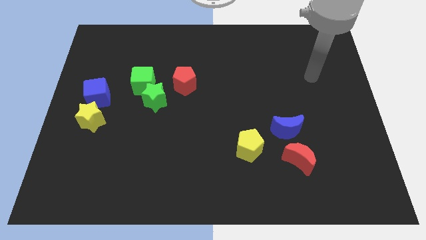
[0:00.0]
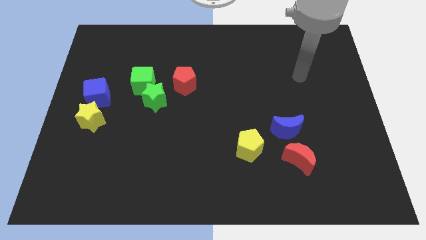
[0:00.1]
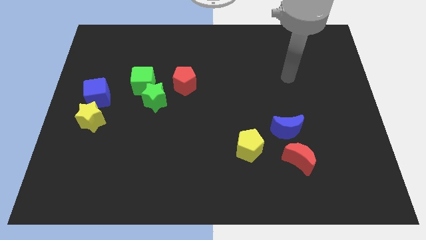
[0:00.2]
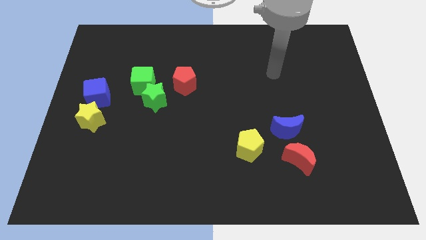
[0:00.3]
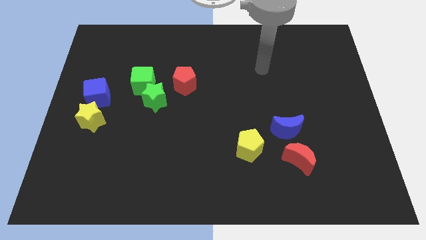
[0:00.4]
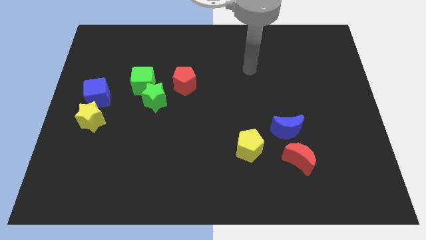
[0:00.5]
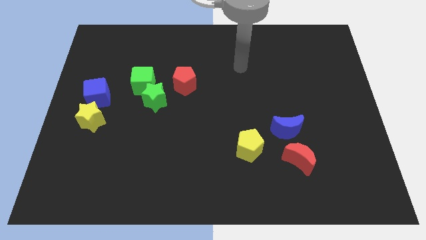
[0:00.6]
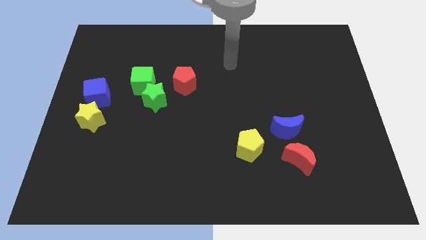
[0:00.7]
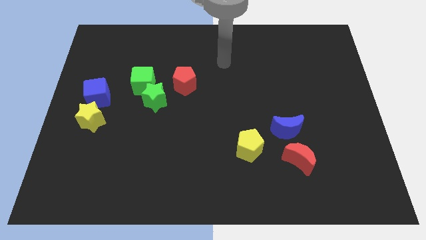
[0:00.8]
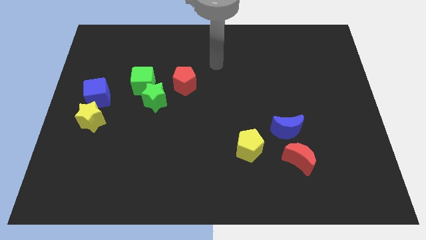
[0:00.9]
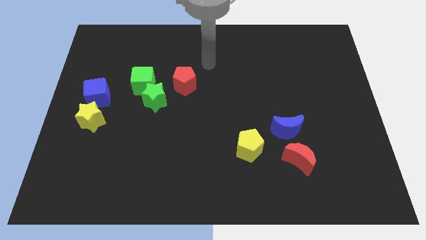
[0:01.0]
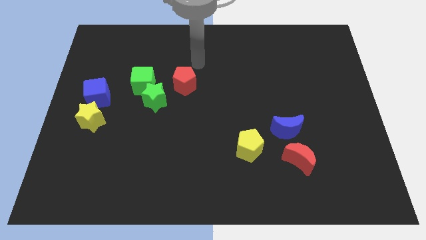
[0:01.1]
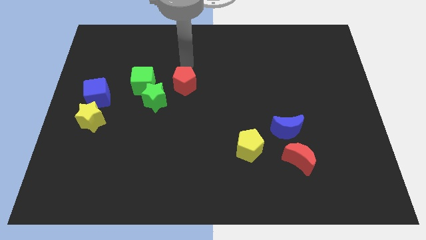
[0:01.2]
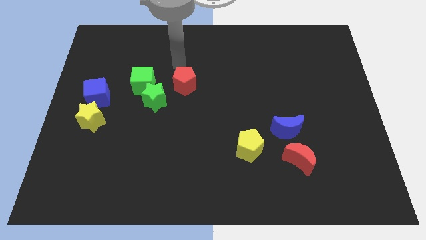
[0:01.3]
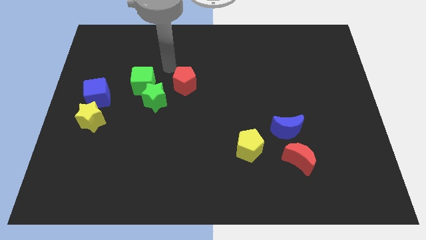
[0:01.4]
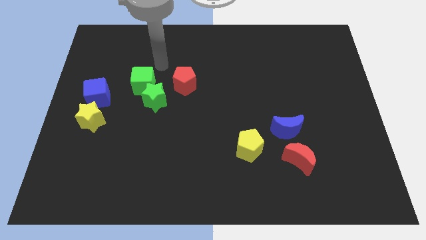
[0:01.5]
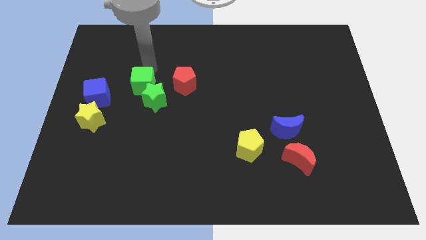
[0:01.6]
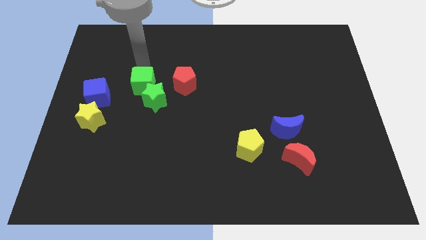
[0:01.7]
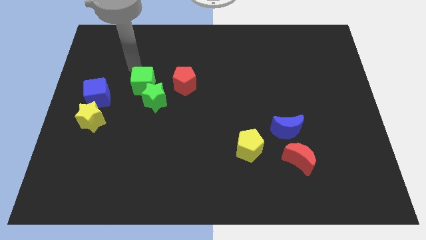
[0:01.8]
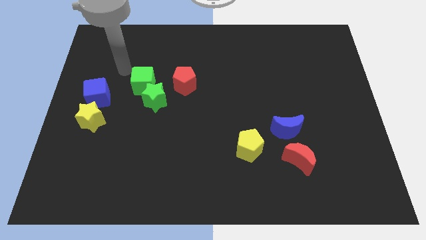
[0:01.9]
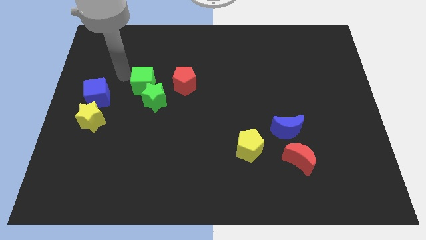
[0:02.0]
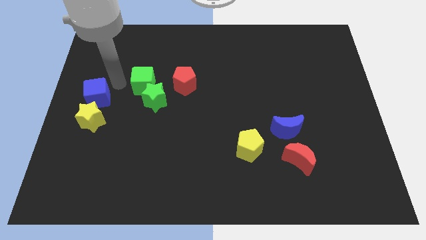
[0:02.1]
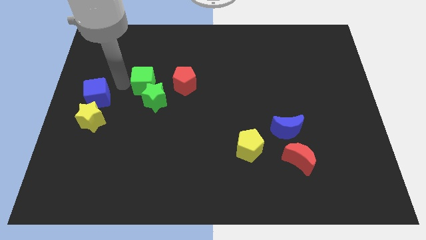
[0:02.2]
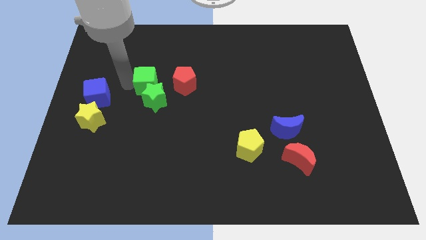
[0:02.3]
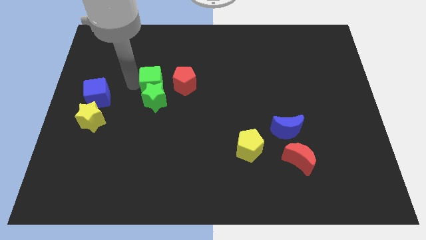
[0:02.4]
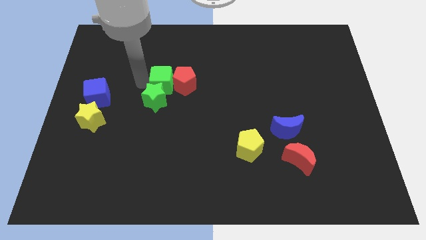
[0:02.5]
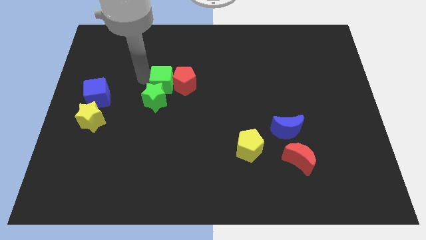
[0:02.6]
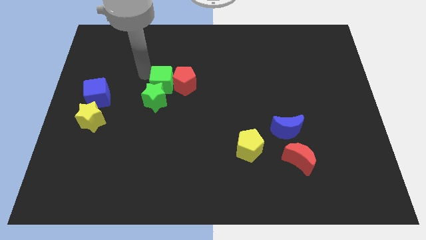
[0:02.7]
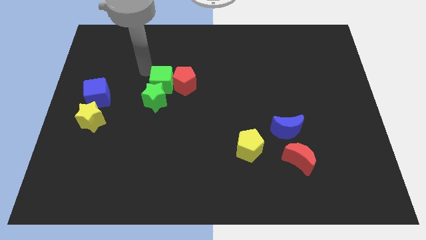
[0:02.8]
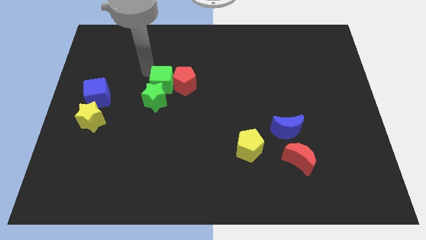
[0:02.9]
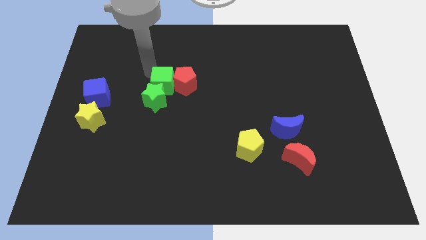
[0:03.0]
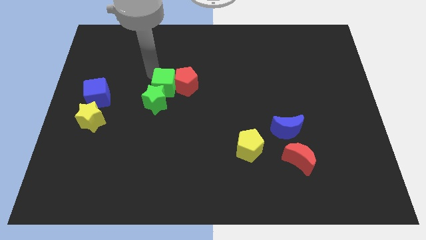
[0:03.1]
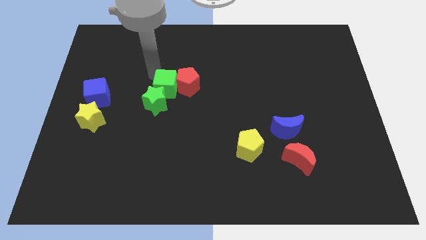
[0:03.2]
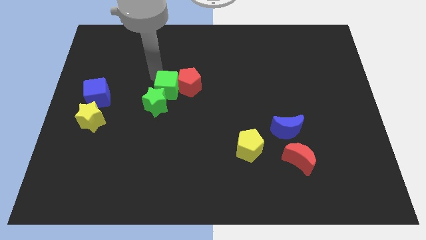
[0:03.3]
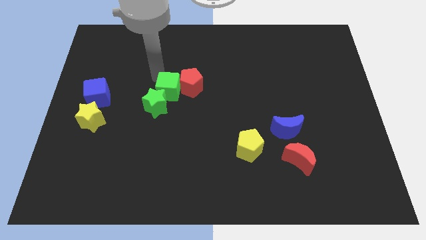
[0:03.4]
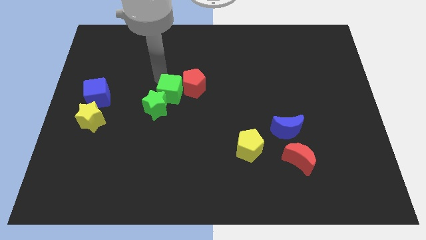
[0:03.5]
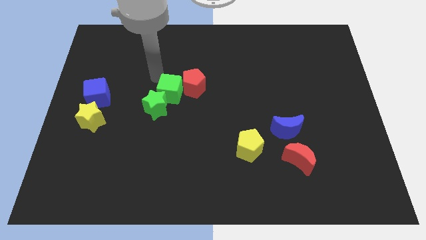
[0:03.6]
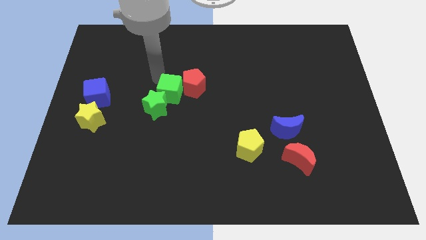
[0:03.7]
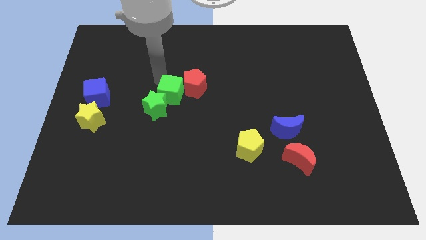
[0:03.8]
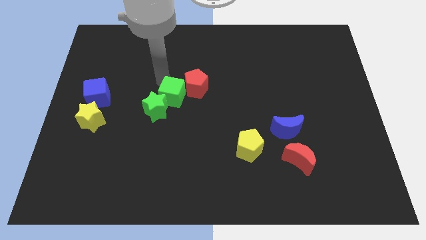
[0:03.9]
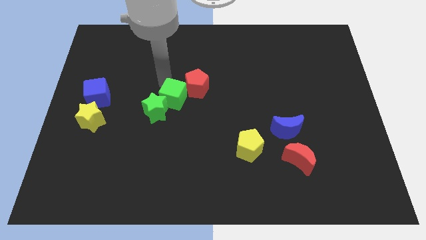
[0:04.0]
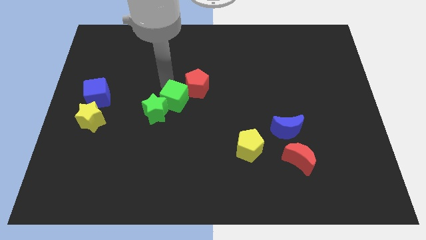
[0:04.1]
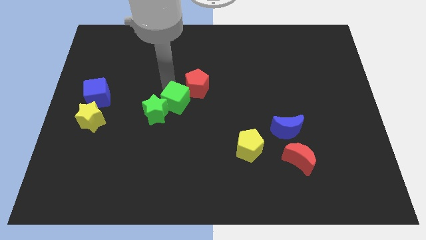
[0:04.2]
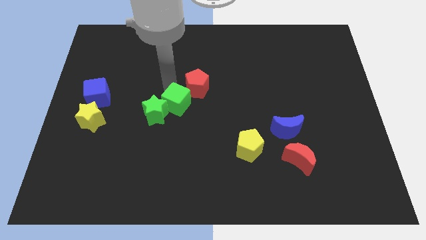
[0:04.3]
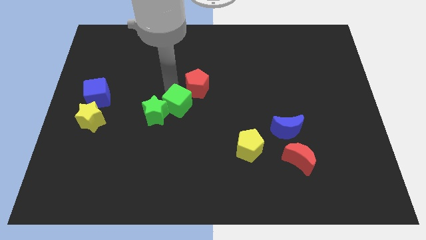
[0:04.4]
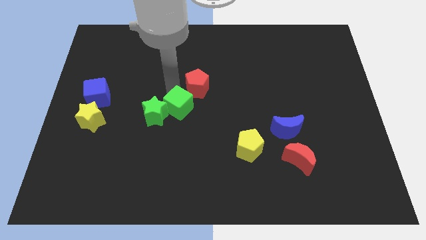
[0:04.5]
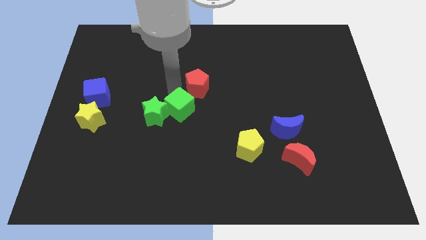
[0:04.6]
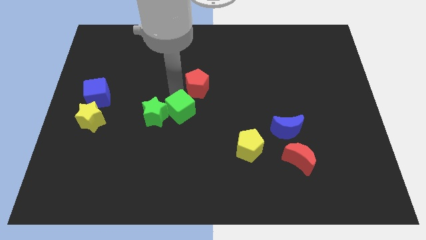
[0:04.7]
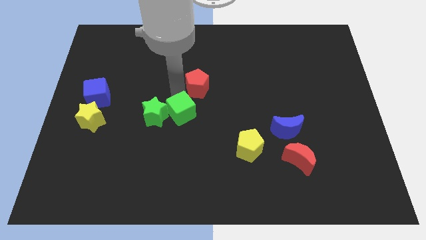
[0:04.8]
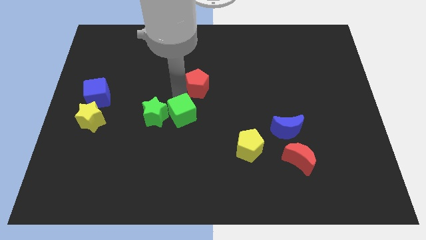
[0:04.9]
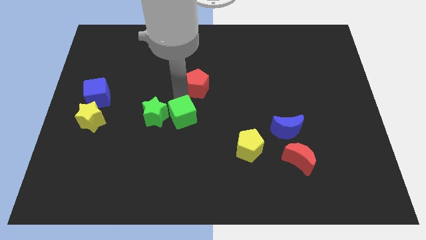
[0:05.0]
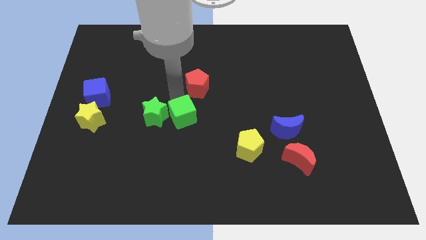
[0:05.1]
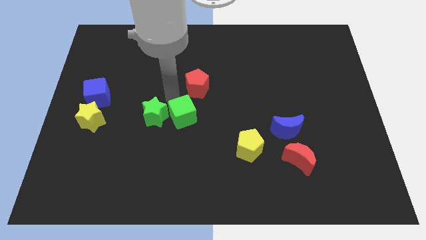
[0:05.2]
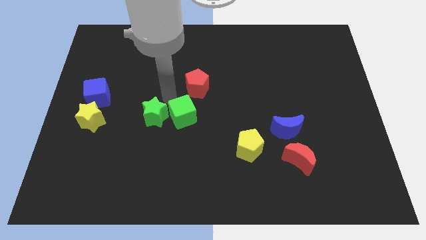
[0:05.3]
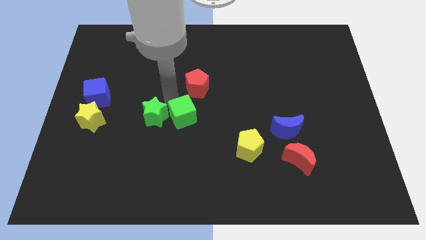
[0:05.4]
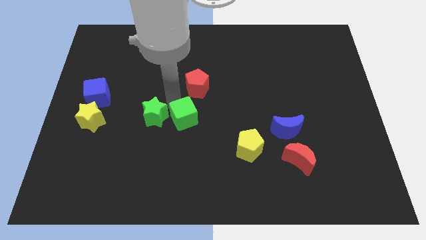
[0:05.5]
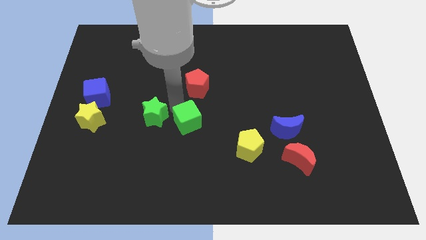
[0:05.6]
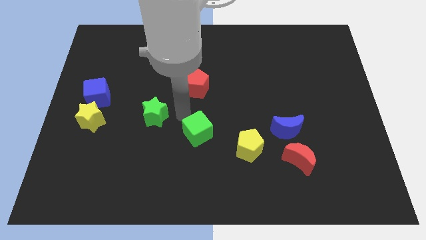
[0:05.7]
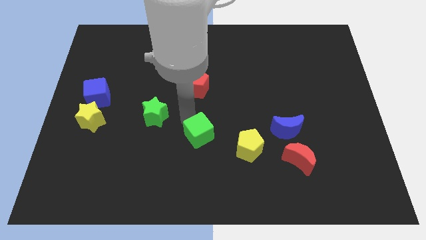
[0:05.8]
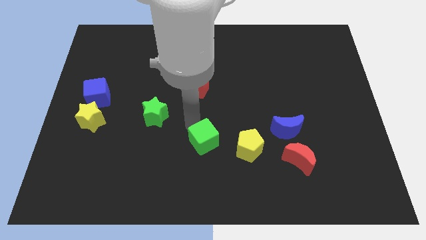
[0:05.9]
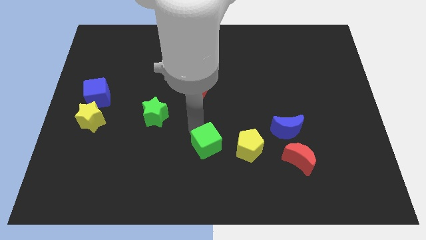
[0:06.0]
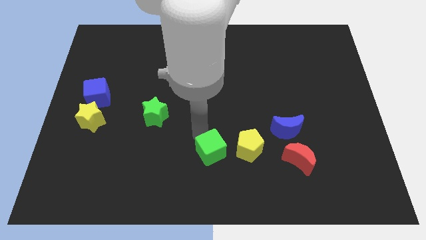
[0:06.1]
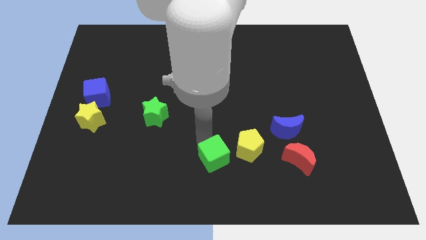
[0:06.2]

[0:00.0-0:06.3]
put the green cube to the bottom left side of the yellow pentagon
